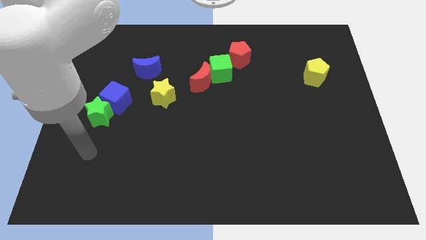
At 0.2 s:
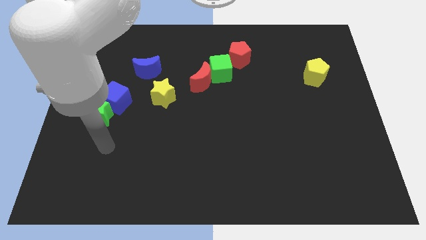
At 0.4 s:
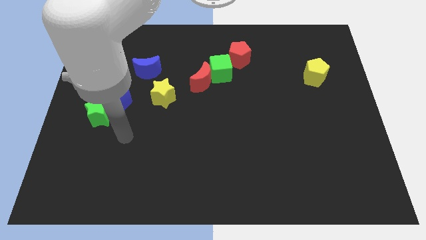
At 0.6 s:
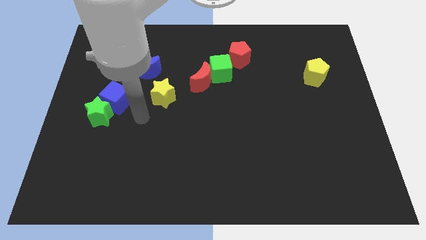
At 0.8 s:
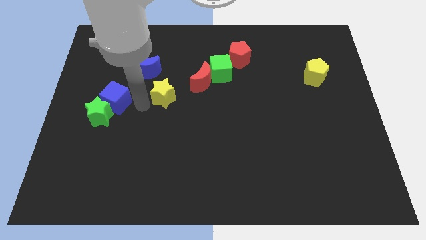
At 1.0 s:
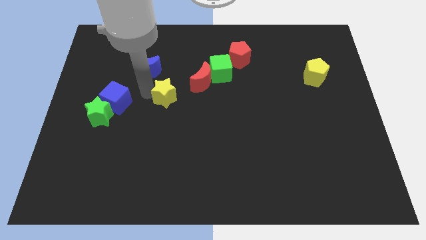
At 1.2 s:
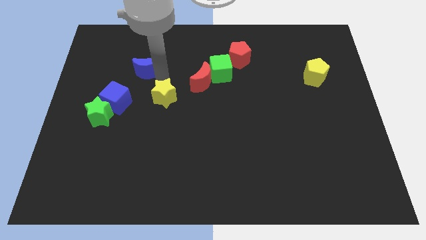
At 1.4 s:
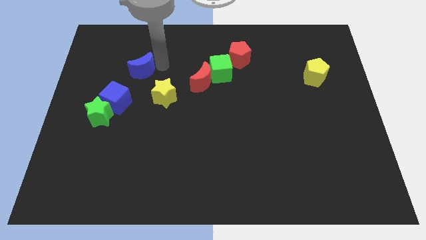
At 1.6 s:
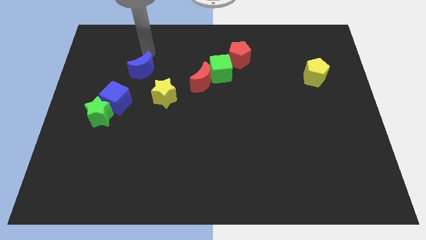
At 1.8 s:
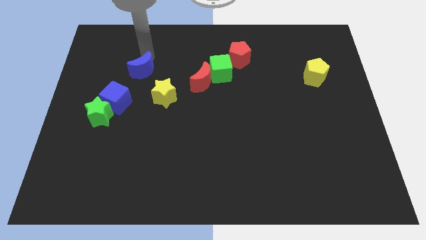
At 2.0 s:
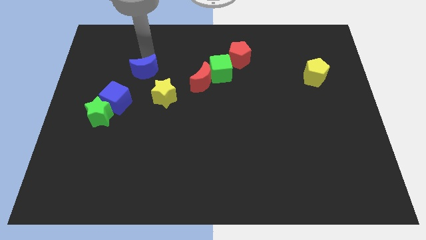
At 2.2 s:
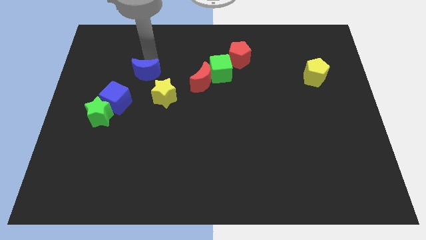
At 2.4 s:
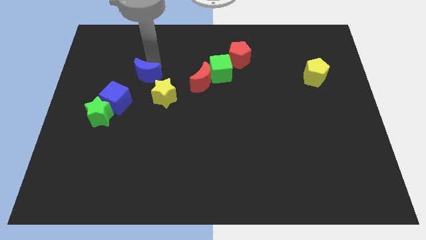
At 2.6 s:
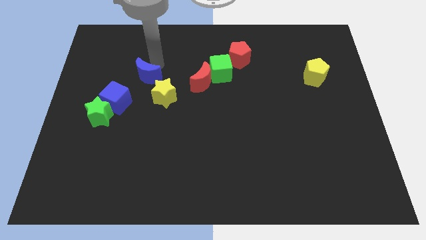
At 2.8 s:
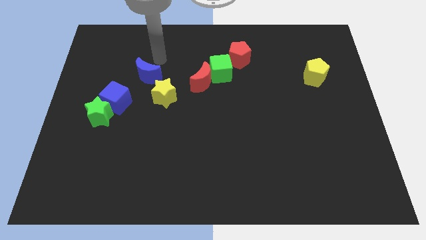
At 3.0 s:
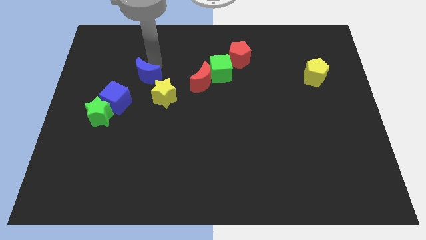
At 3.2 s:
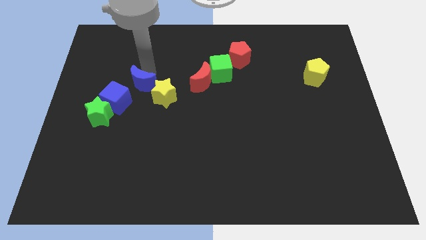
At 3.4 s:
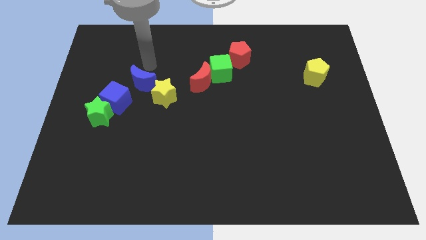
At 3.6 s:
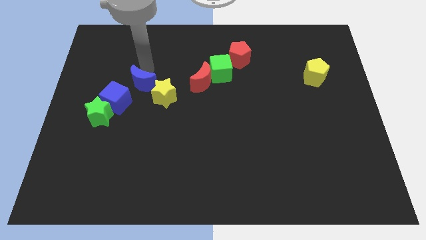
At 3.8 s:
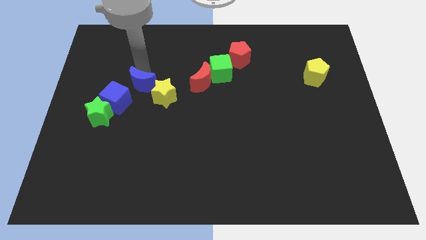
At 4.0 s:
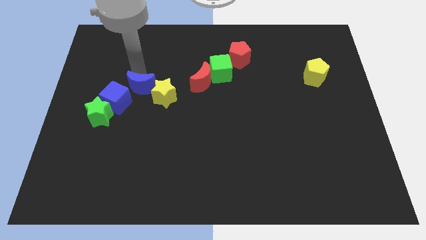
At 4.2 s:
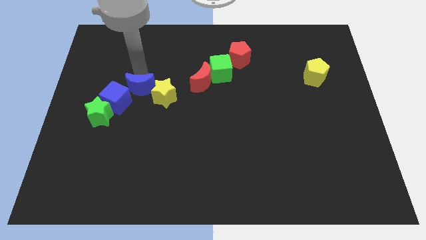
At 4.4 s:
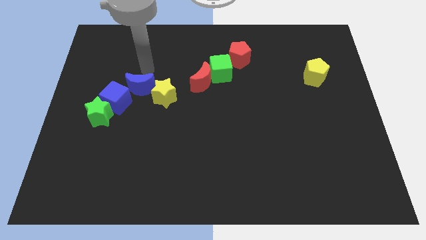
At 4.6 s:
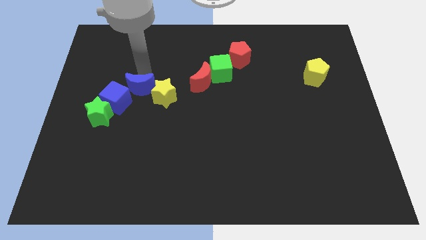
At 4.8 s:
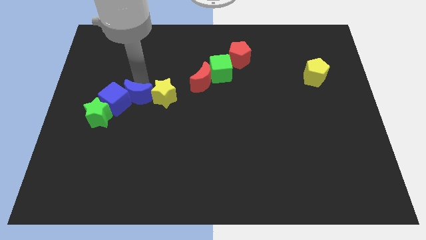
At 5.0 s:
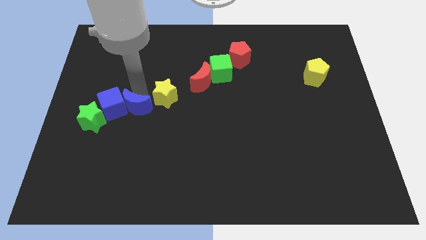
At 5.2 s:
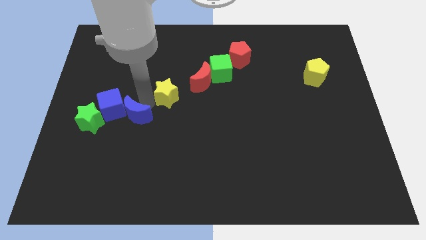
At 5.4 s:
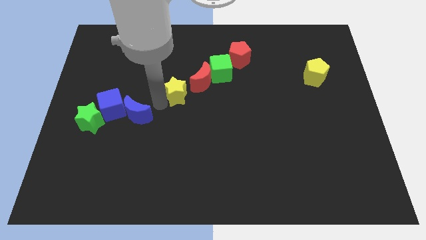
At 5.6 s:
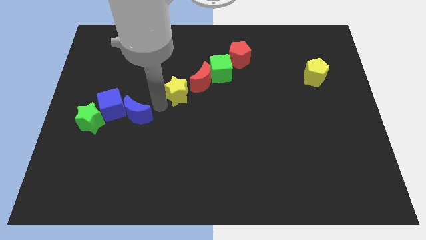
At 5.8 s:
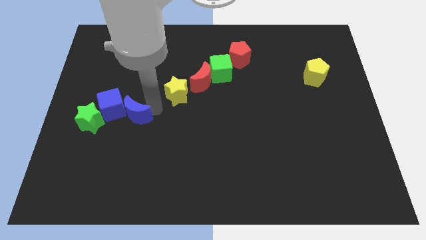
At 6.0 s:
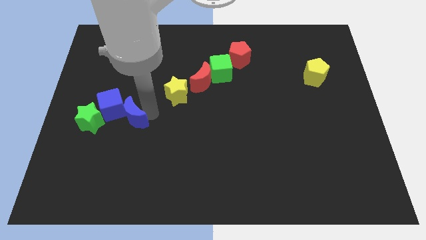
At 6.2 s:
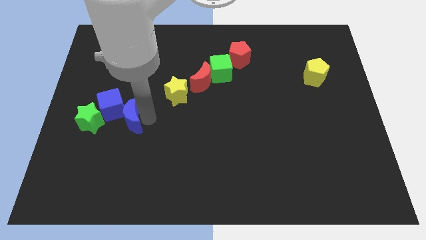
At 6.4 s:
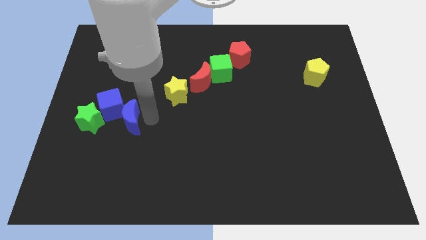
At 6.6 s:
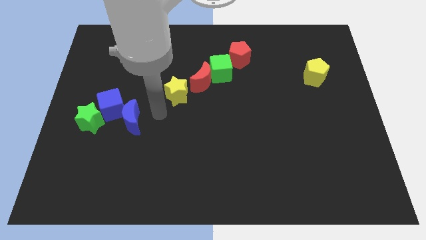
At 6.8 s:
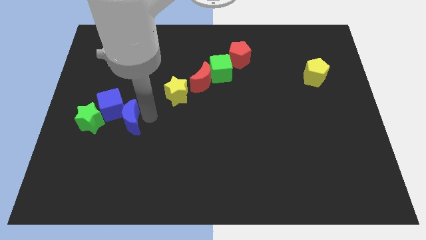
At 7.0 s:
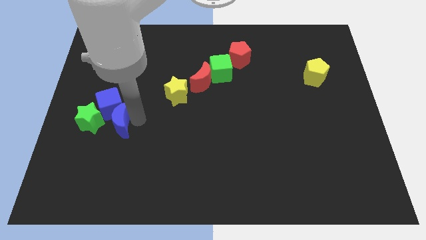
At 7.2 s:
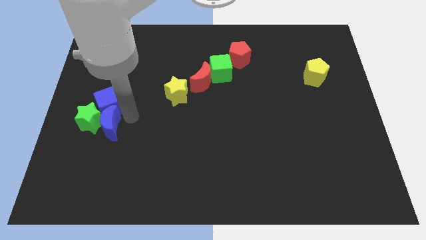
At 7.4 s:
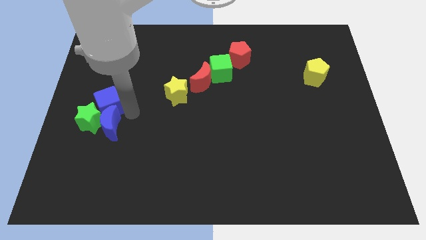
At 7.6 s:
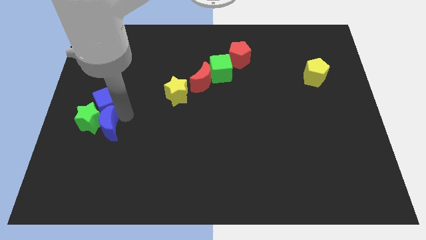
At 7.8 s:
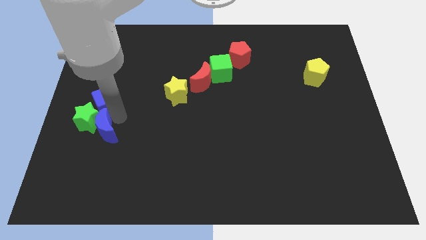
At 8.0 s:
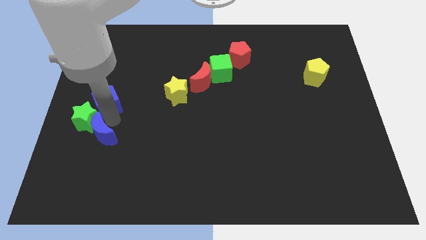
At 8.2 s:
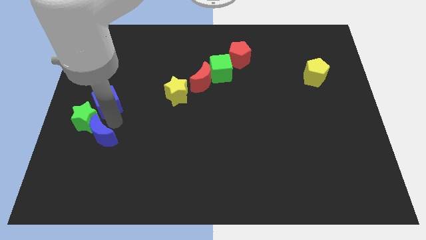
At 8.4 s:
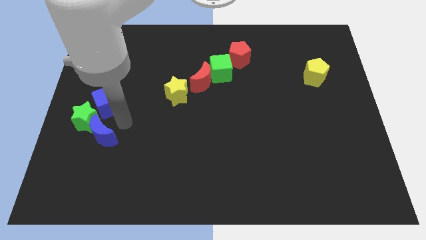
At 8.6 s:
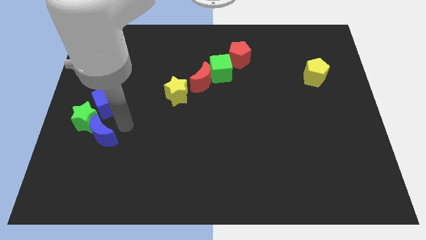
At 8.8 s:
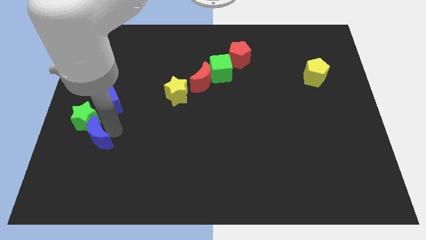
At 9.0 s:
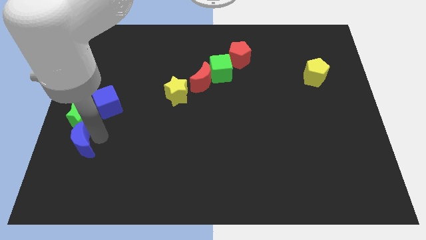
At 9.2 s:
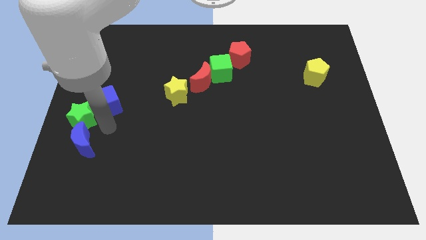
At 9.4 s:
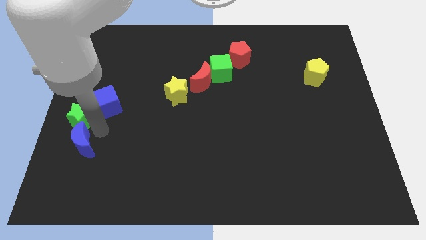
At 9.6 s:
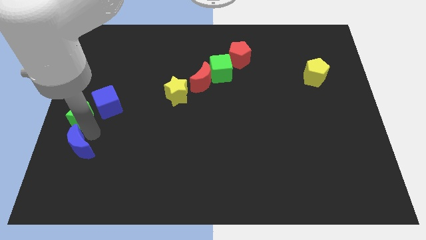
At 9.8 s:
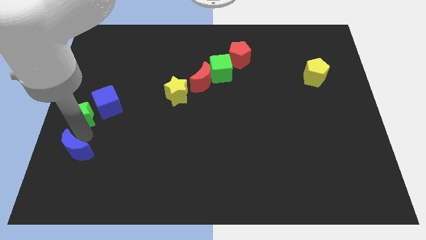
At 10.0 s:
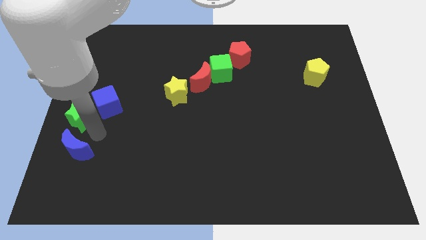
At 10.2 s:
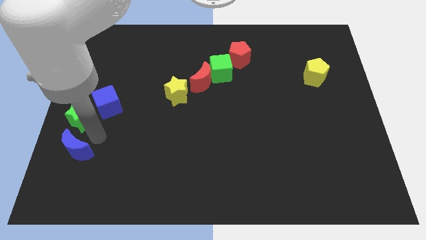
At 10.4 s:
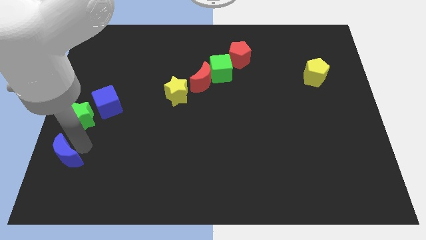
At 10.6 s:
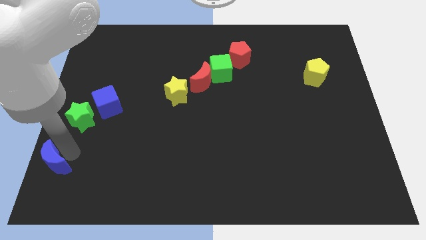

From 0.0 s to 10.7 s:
slide the blue moon to the bottom left corner

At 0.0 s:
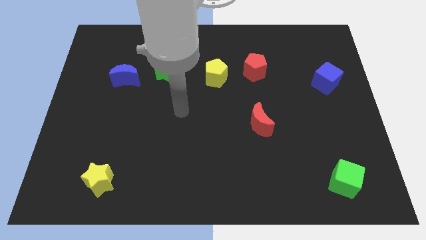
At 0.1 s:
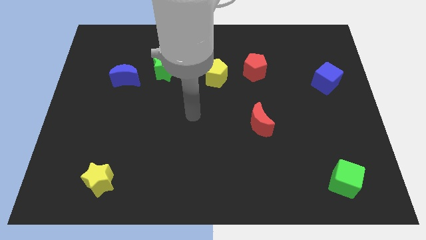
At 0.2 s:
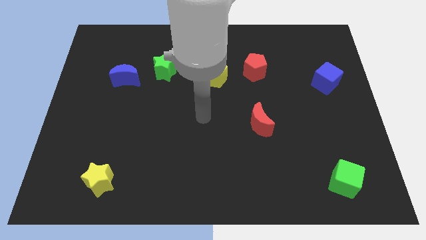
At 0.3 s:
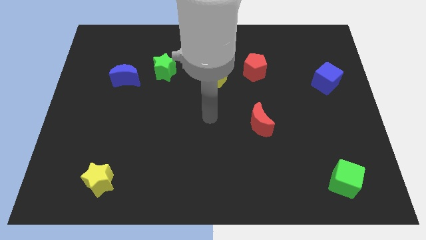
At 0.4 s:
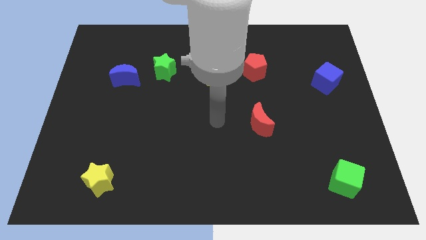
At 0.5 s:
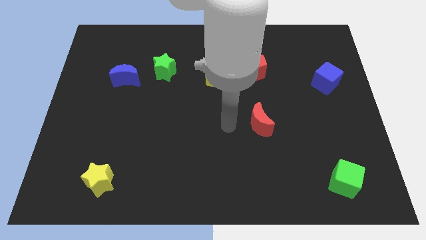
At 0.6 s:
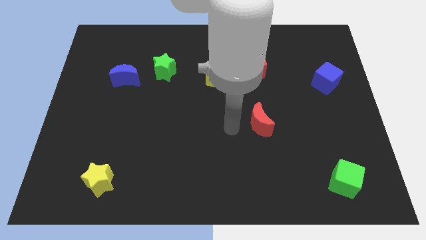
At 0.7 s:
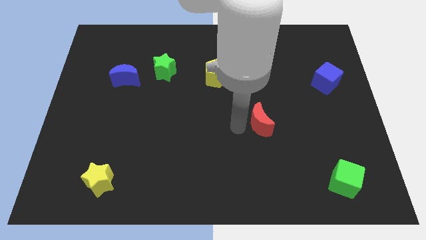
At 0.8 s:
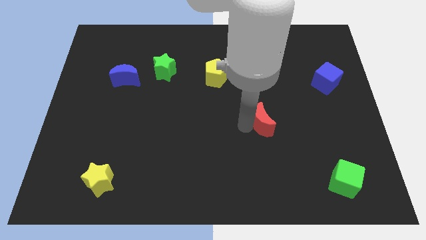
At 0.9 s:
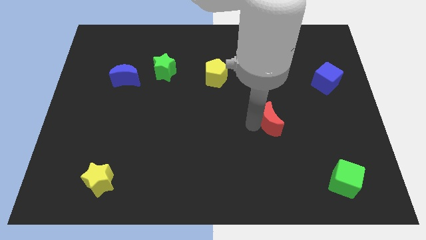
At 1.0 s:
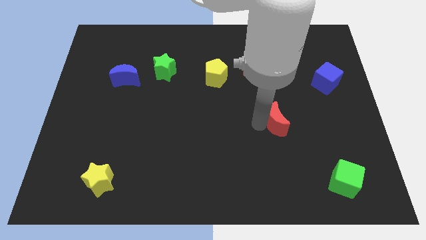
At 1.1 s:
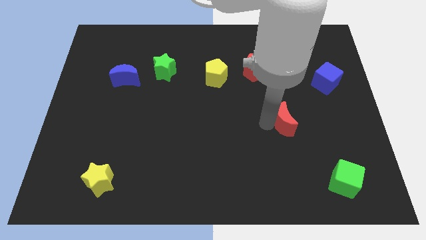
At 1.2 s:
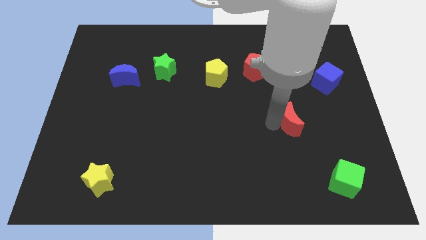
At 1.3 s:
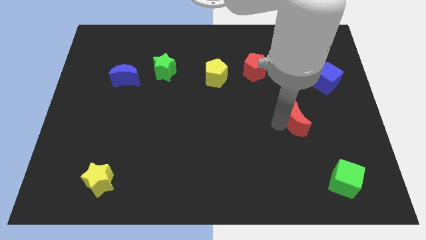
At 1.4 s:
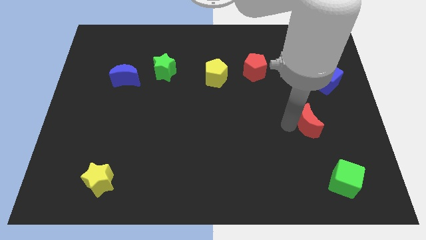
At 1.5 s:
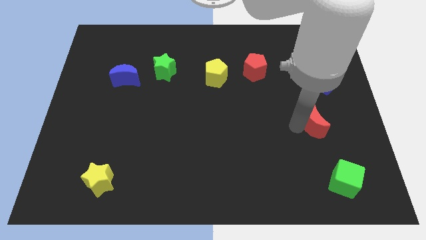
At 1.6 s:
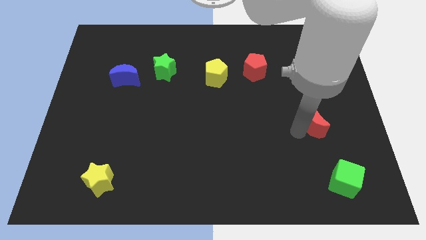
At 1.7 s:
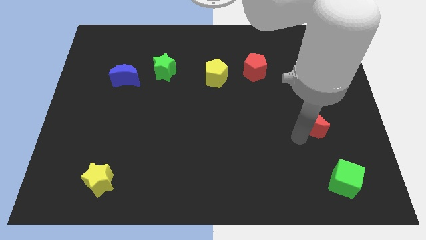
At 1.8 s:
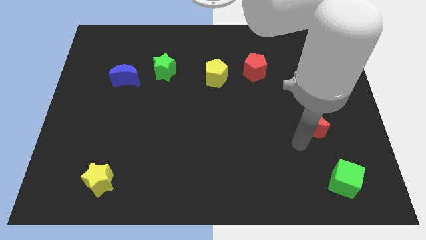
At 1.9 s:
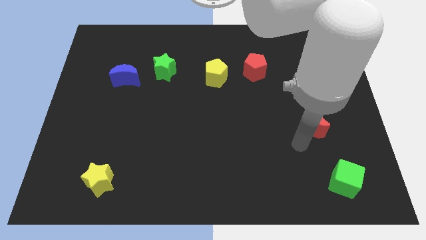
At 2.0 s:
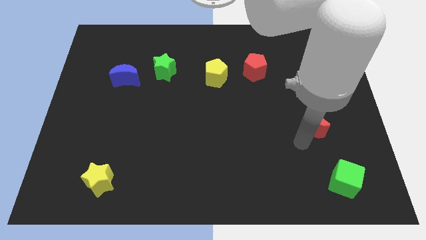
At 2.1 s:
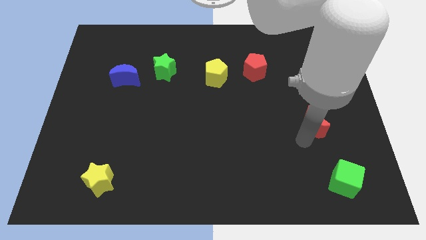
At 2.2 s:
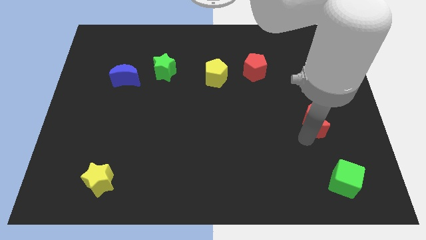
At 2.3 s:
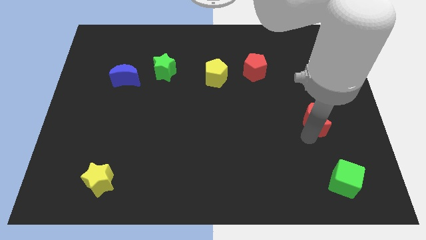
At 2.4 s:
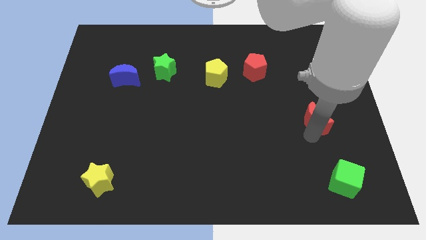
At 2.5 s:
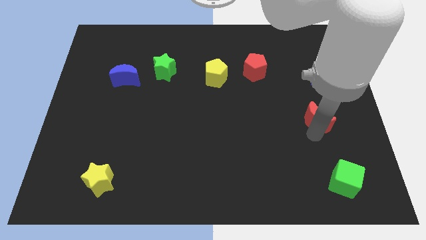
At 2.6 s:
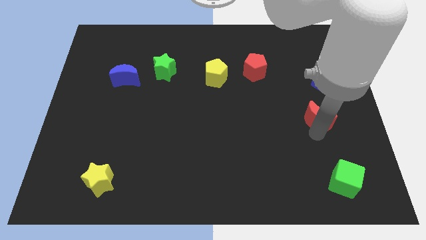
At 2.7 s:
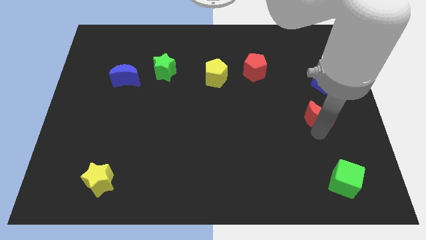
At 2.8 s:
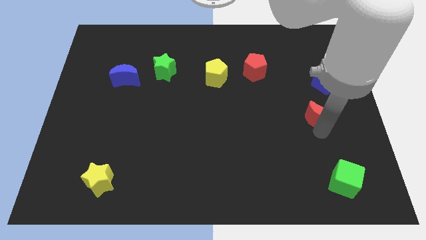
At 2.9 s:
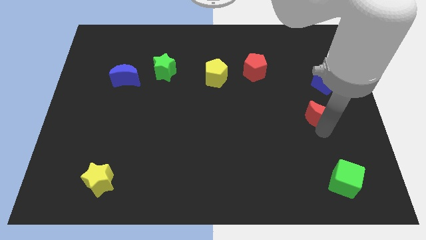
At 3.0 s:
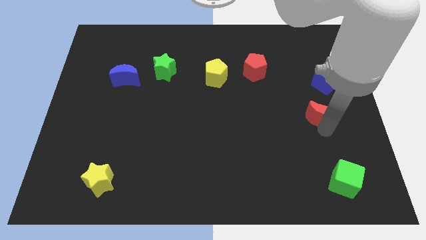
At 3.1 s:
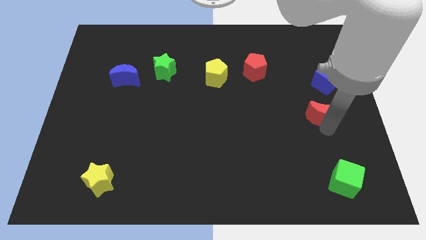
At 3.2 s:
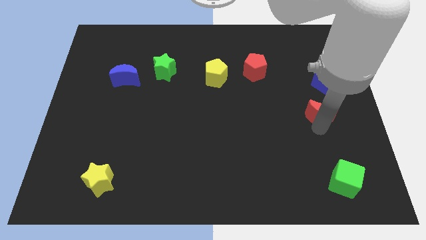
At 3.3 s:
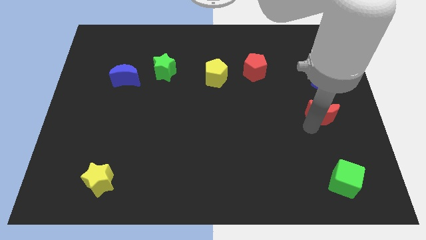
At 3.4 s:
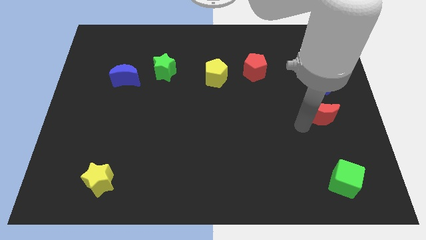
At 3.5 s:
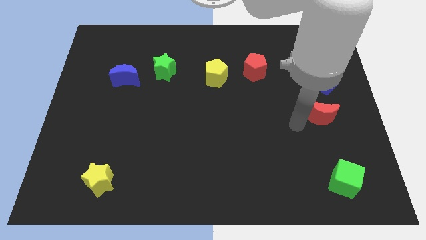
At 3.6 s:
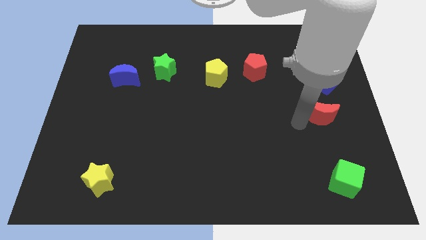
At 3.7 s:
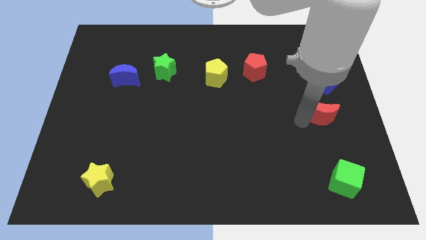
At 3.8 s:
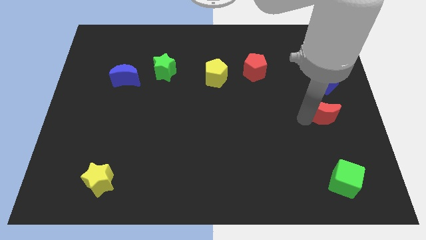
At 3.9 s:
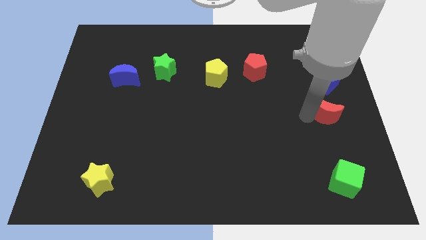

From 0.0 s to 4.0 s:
move the red moon to the right side
